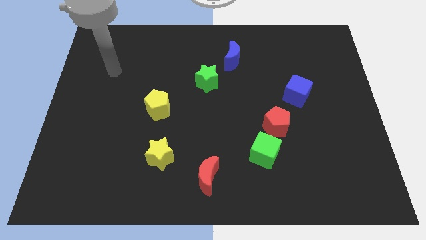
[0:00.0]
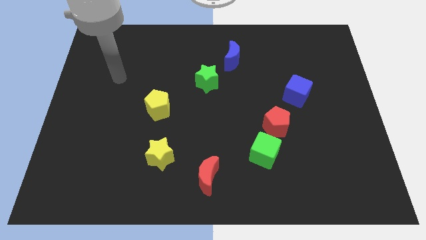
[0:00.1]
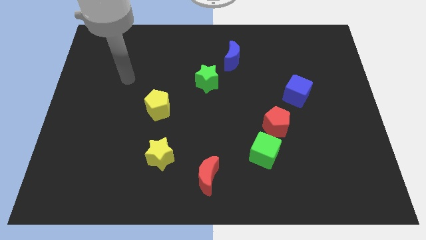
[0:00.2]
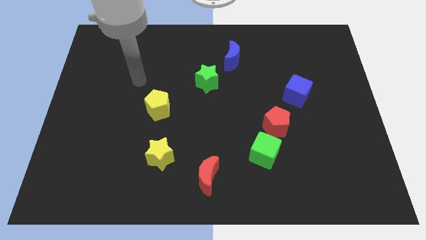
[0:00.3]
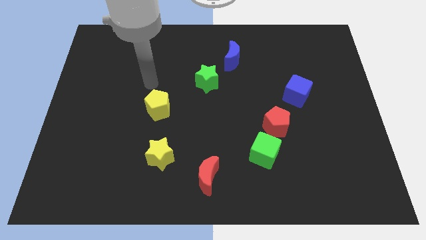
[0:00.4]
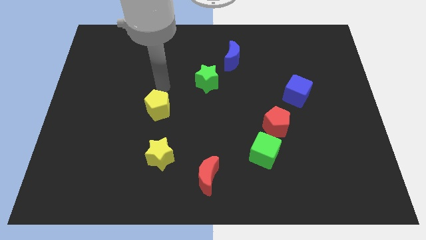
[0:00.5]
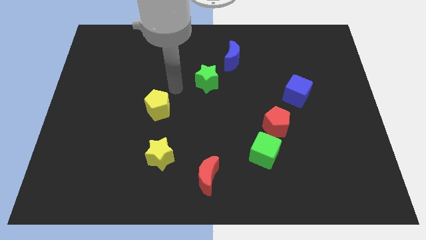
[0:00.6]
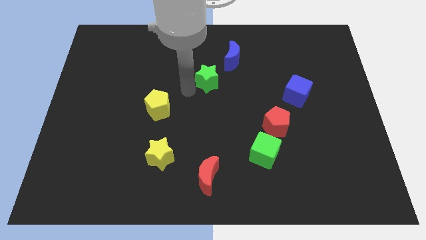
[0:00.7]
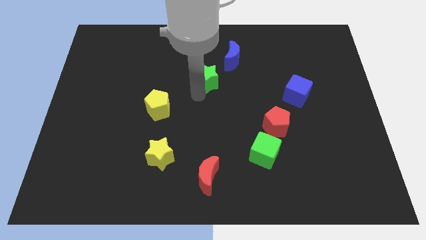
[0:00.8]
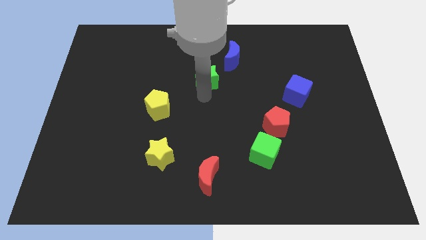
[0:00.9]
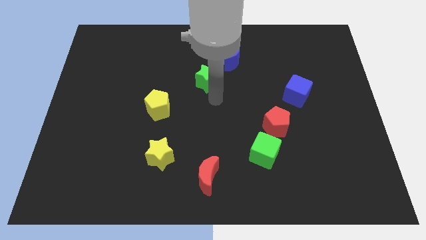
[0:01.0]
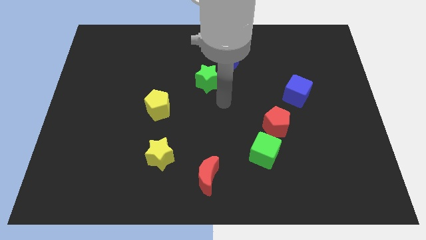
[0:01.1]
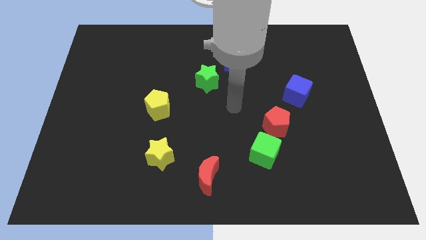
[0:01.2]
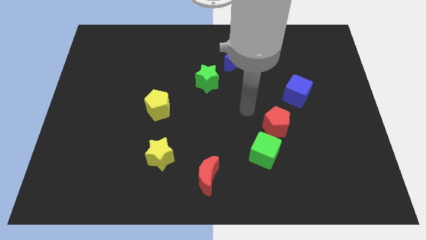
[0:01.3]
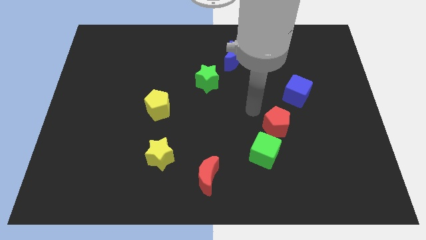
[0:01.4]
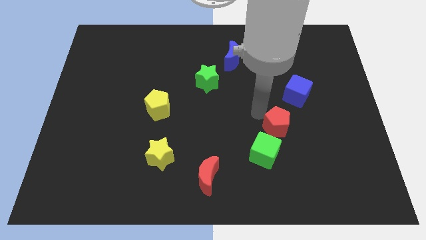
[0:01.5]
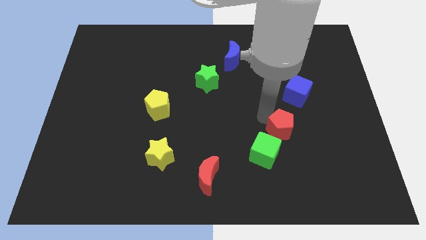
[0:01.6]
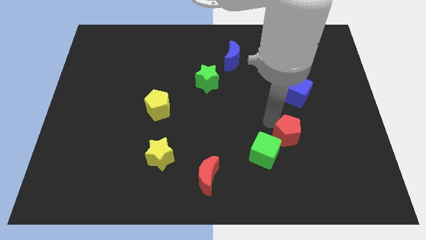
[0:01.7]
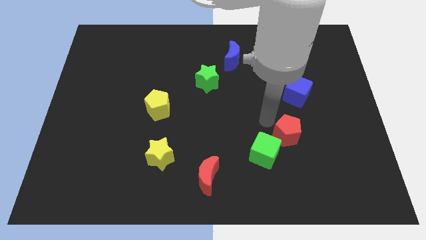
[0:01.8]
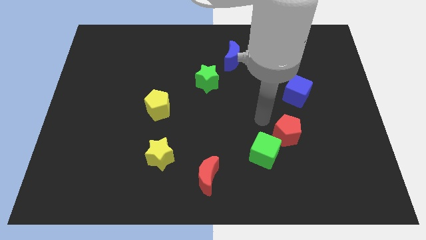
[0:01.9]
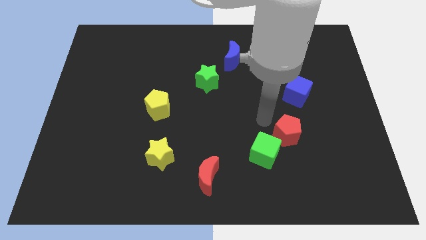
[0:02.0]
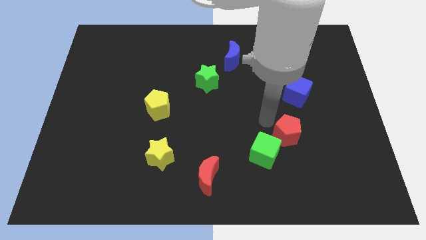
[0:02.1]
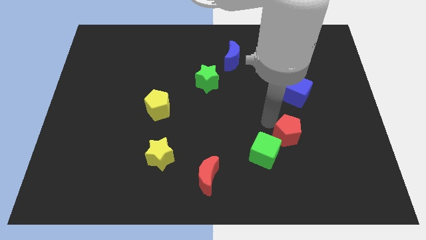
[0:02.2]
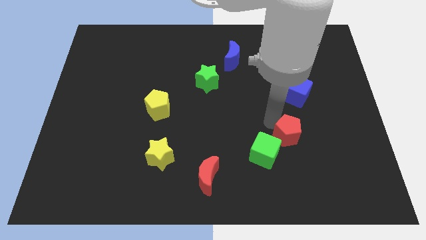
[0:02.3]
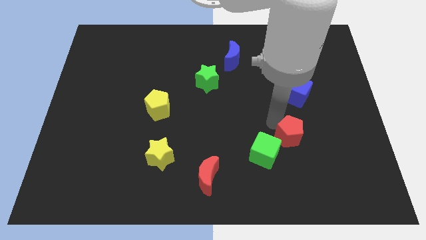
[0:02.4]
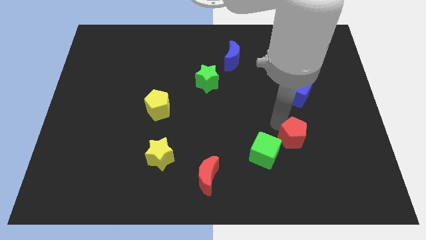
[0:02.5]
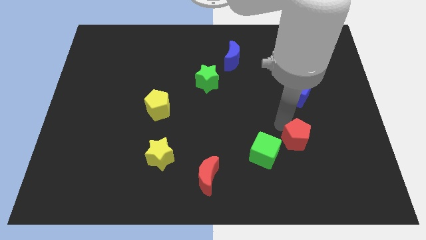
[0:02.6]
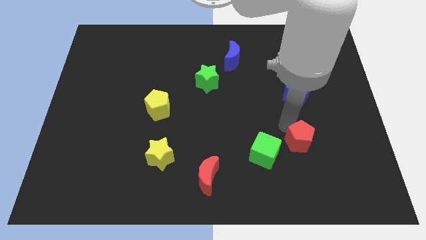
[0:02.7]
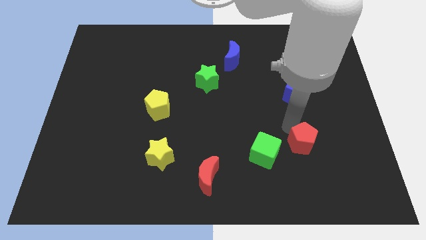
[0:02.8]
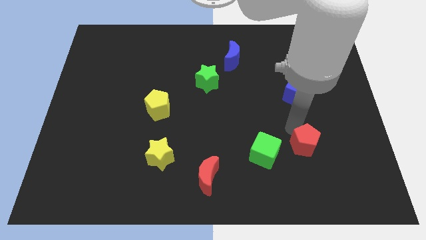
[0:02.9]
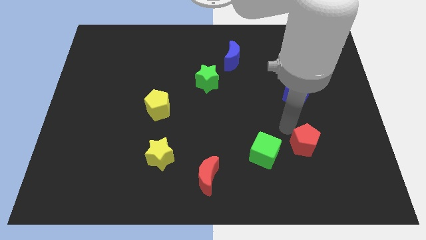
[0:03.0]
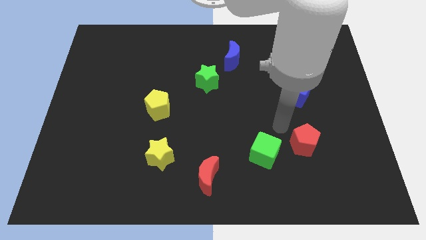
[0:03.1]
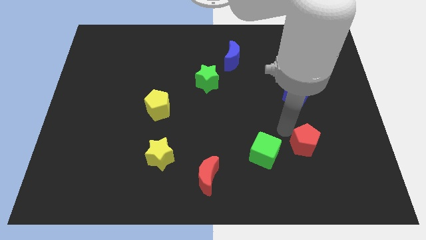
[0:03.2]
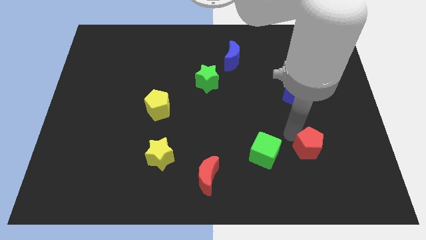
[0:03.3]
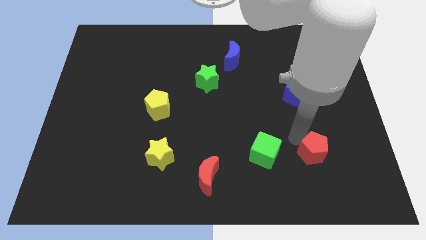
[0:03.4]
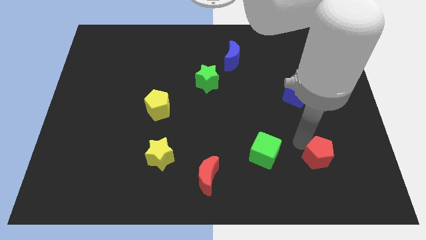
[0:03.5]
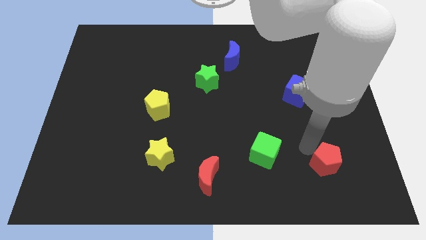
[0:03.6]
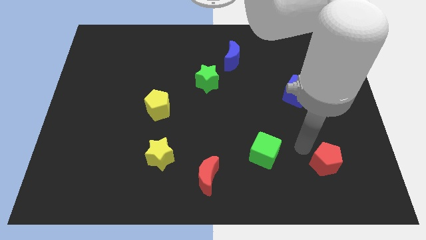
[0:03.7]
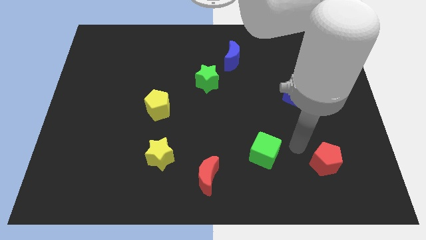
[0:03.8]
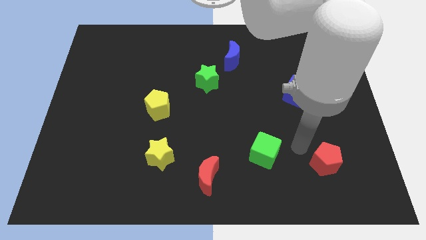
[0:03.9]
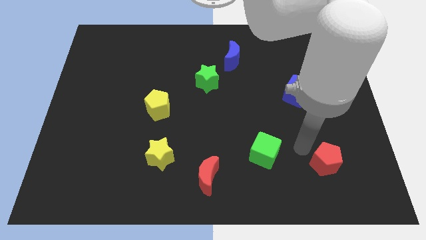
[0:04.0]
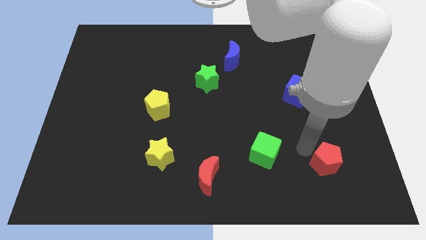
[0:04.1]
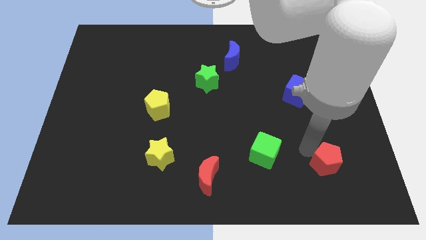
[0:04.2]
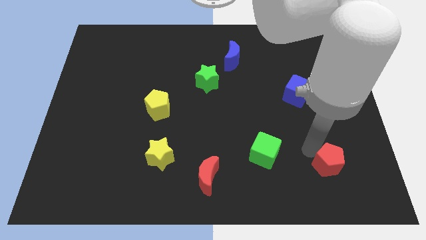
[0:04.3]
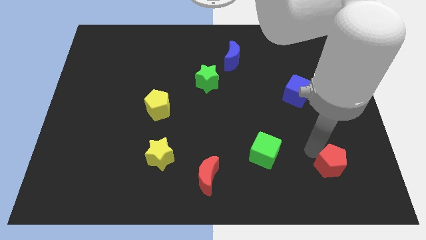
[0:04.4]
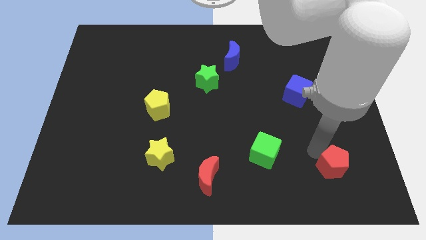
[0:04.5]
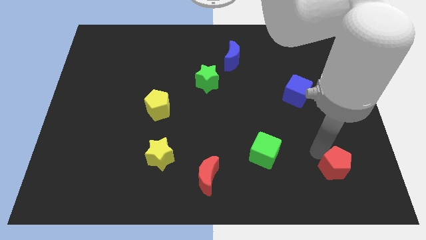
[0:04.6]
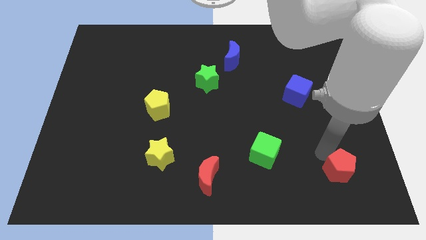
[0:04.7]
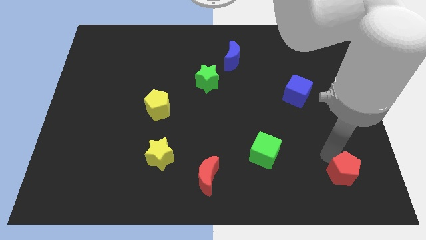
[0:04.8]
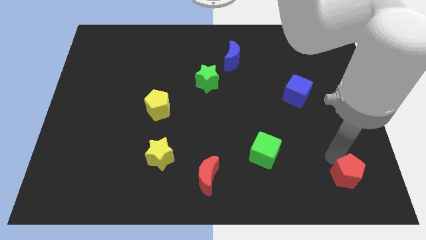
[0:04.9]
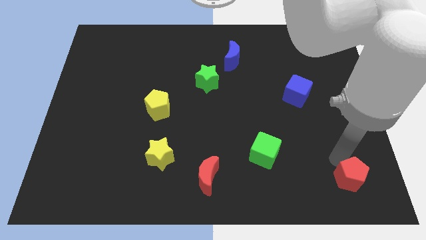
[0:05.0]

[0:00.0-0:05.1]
push the red pentagon to the bottom right

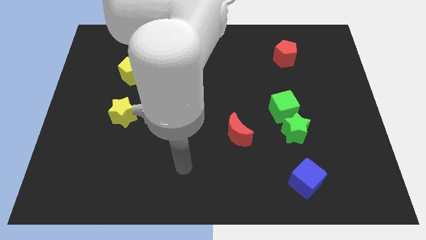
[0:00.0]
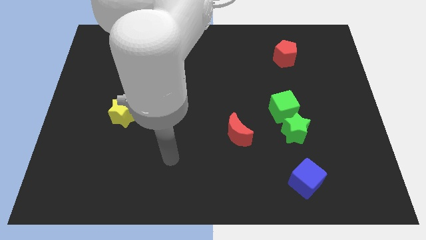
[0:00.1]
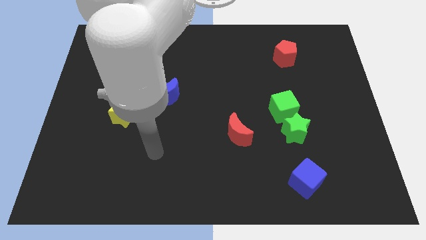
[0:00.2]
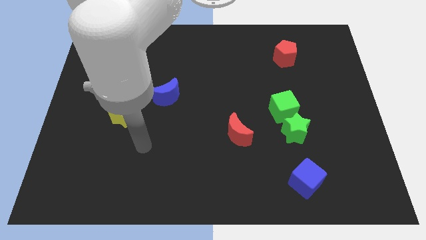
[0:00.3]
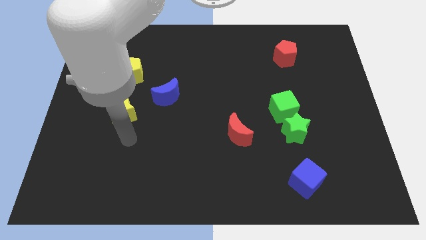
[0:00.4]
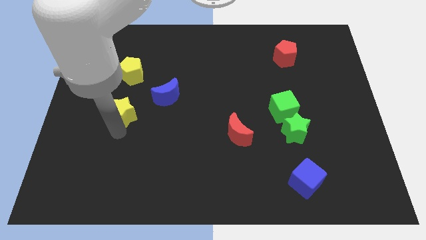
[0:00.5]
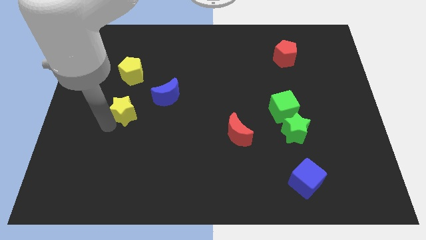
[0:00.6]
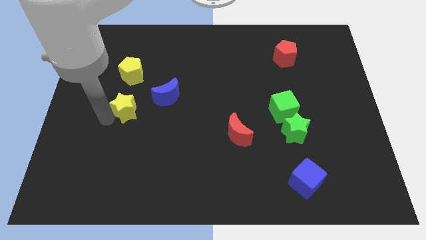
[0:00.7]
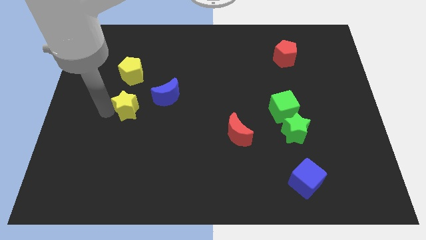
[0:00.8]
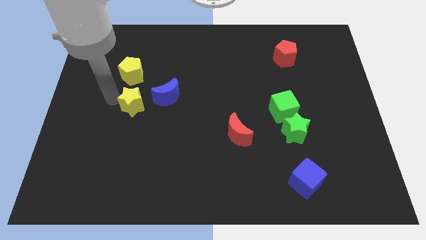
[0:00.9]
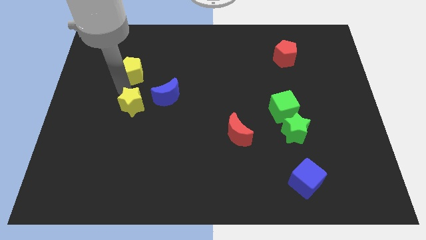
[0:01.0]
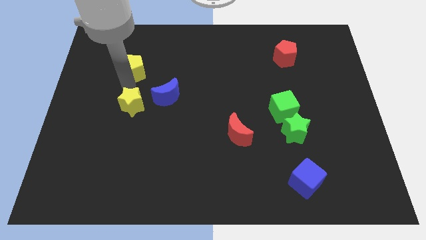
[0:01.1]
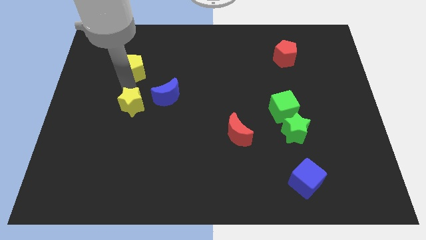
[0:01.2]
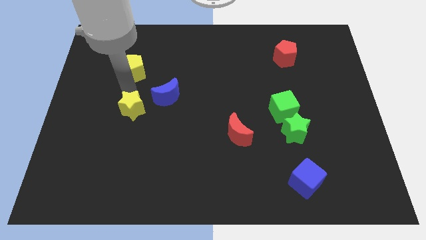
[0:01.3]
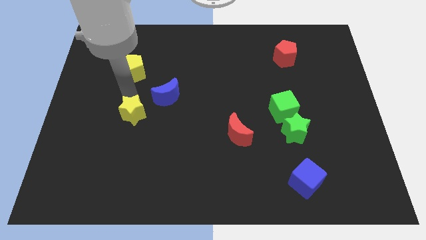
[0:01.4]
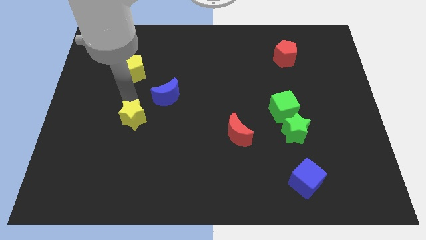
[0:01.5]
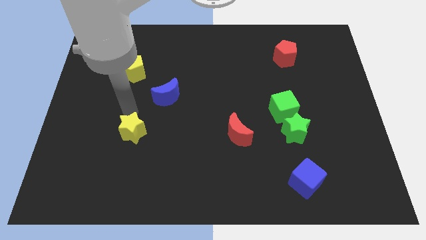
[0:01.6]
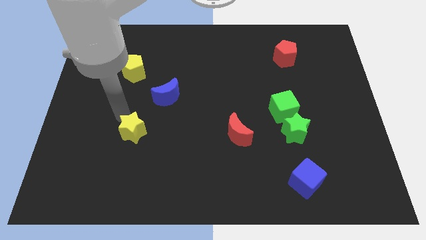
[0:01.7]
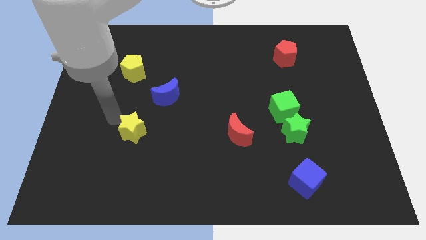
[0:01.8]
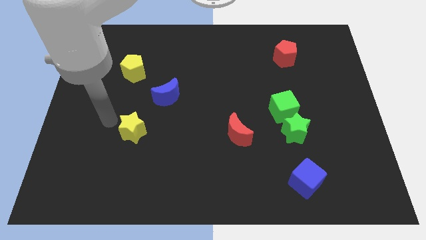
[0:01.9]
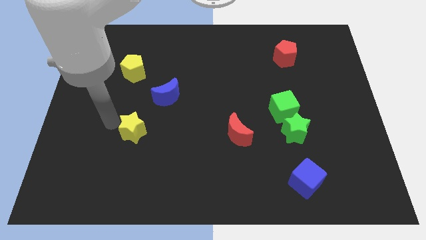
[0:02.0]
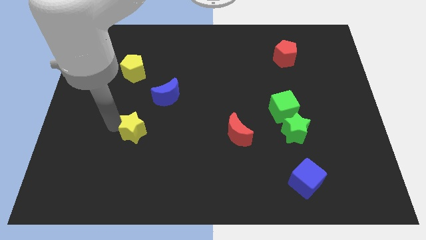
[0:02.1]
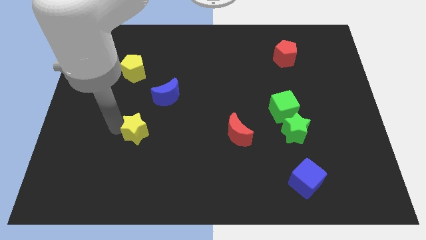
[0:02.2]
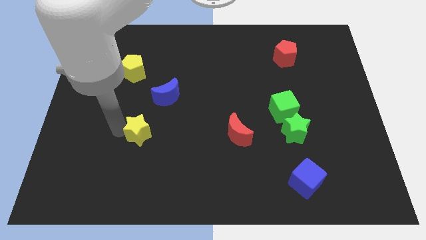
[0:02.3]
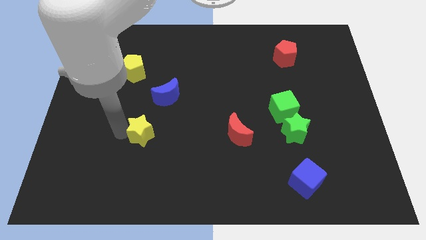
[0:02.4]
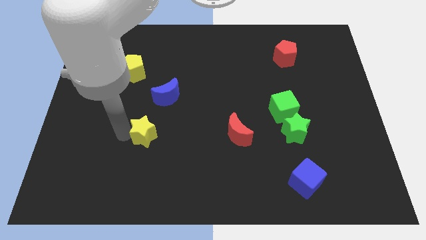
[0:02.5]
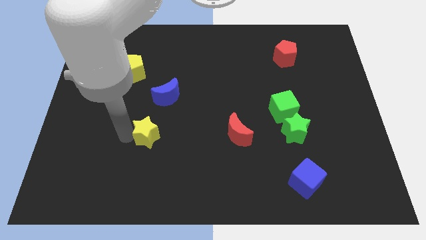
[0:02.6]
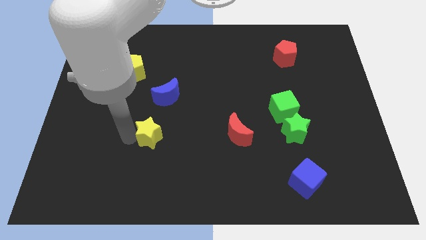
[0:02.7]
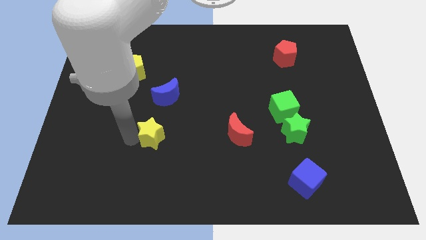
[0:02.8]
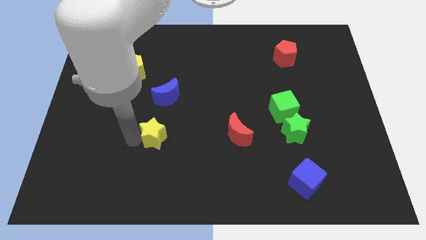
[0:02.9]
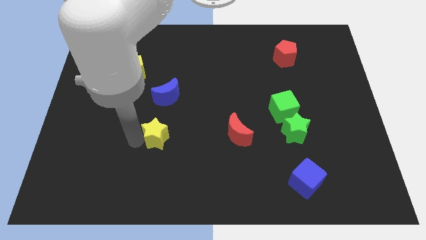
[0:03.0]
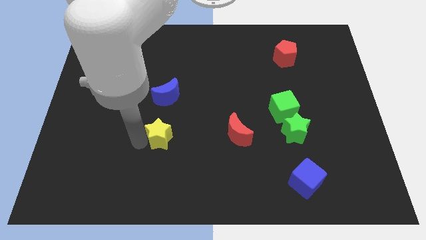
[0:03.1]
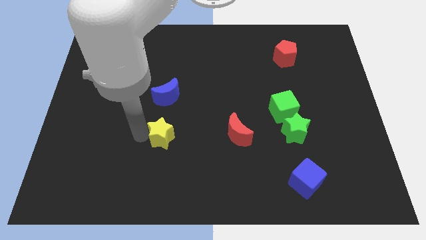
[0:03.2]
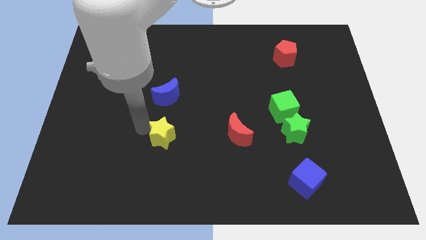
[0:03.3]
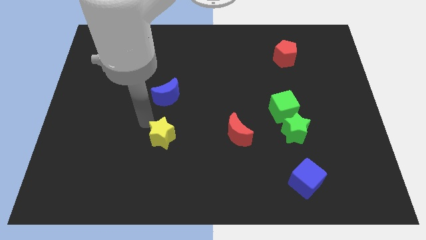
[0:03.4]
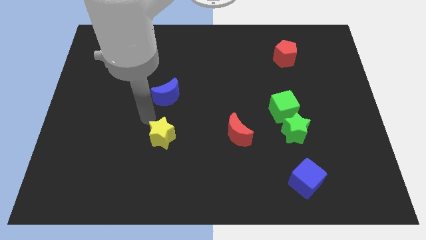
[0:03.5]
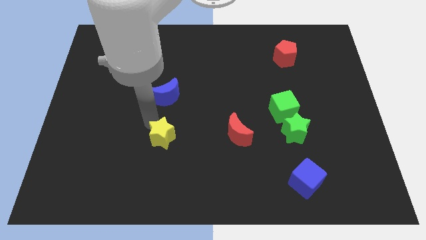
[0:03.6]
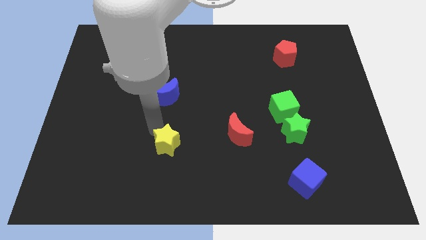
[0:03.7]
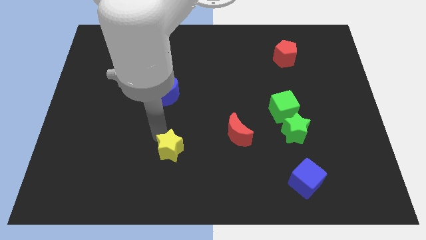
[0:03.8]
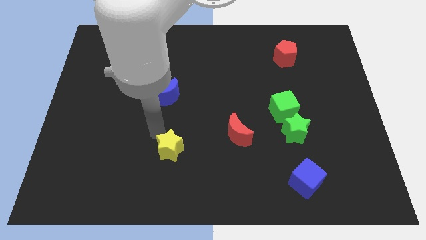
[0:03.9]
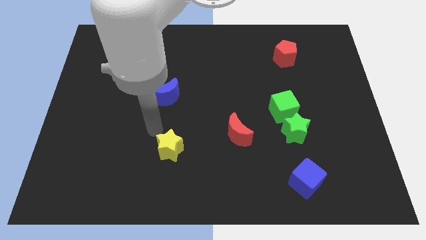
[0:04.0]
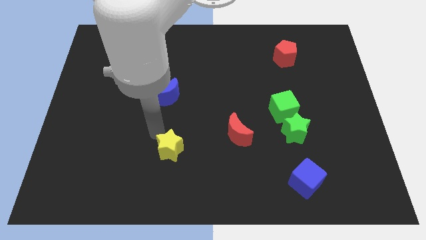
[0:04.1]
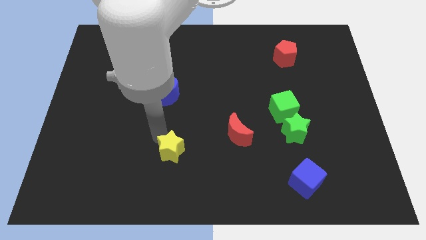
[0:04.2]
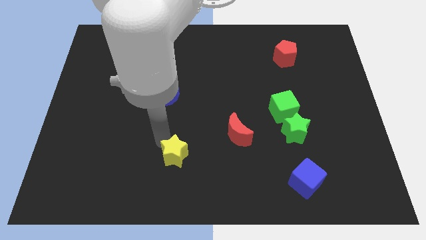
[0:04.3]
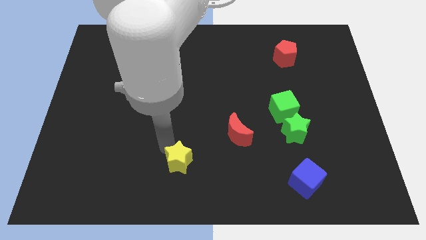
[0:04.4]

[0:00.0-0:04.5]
slide the yellow star to the bottom side
